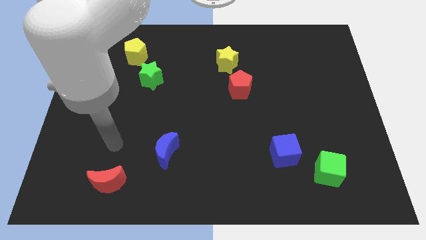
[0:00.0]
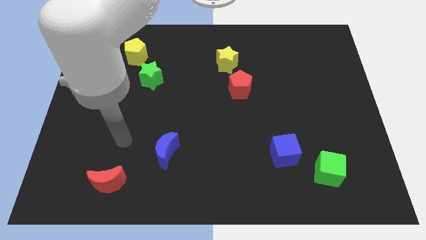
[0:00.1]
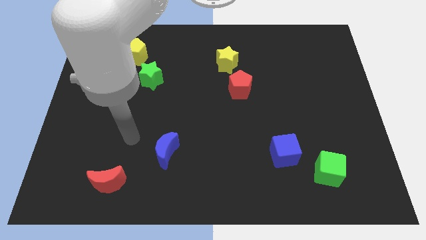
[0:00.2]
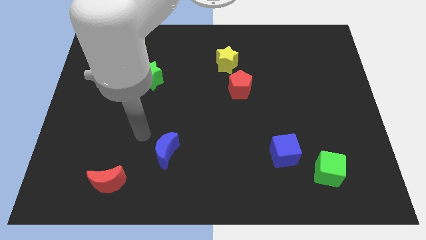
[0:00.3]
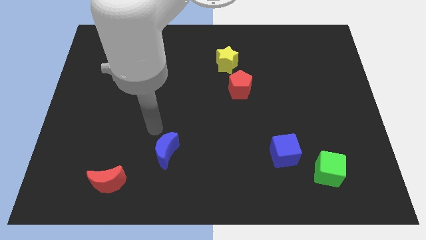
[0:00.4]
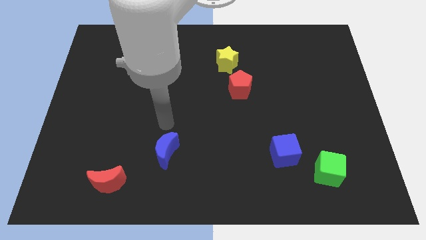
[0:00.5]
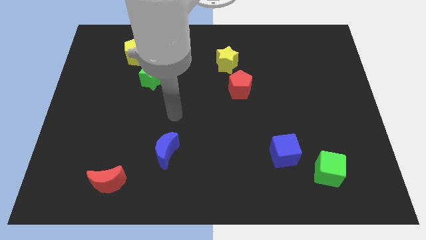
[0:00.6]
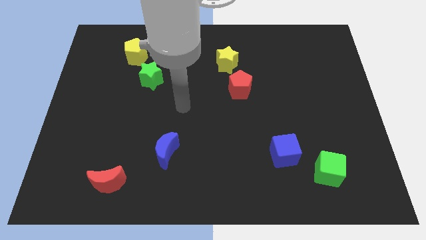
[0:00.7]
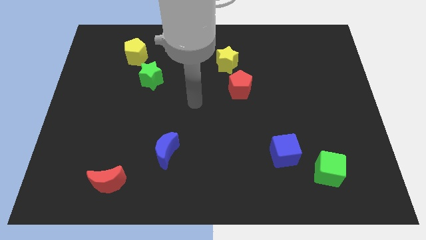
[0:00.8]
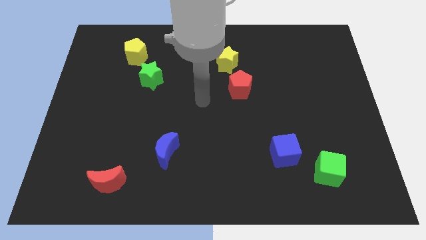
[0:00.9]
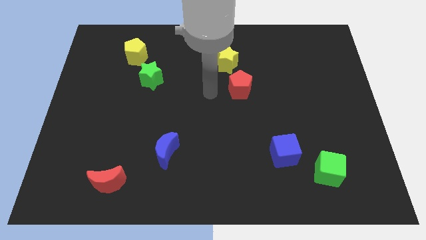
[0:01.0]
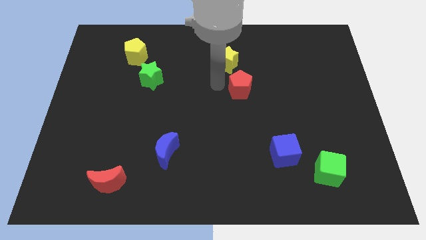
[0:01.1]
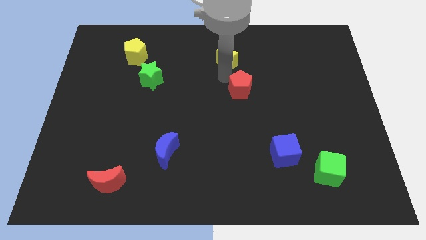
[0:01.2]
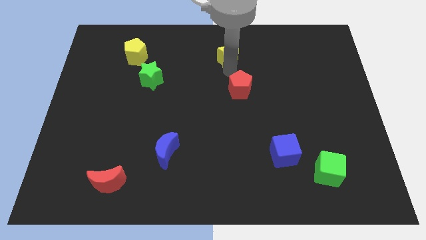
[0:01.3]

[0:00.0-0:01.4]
separate the red pentagon from the yellow star

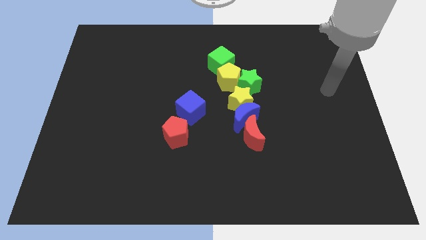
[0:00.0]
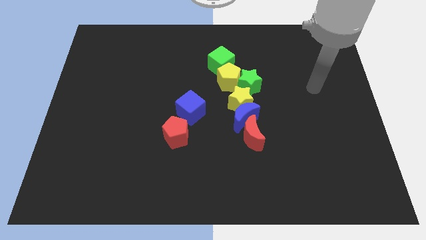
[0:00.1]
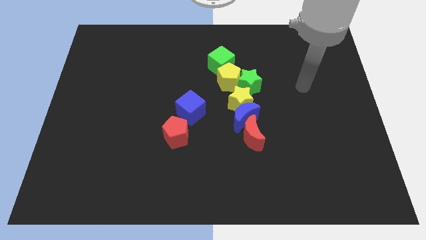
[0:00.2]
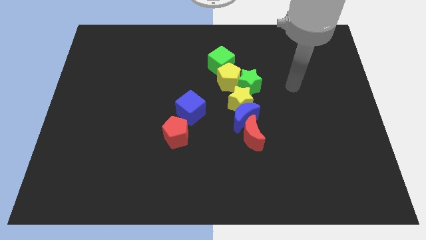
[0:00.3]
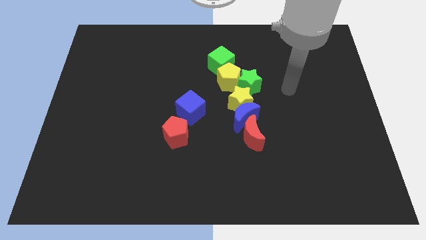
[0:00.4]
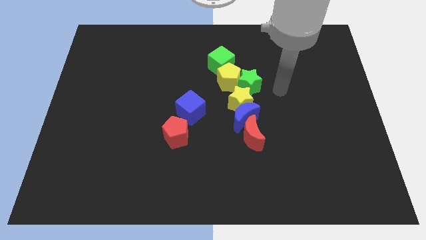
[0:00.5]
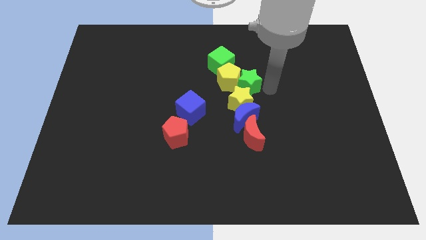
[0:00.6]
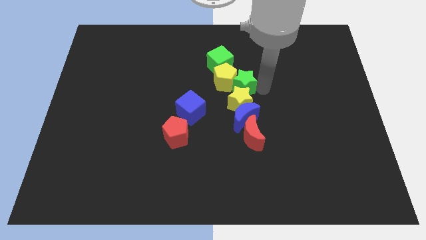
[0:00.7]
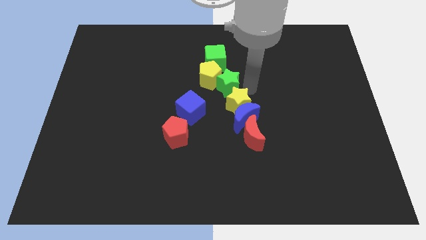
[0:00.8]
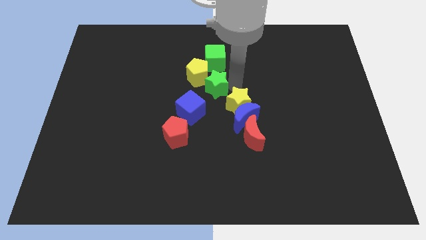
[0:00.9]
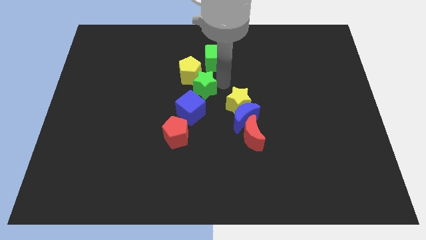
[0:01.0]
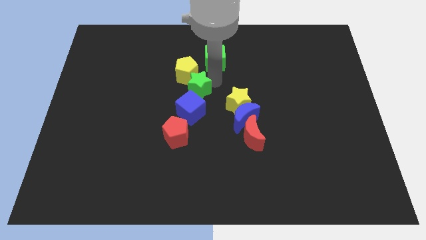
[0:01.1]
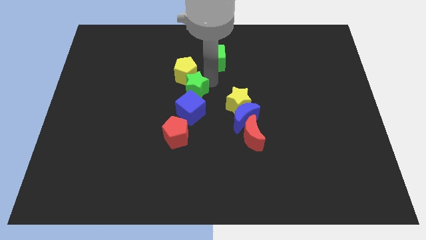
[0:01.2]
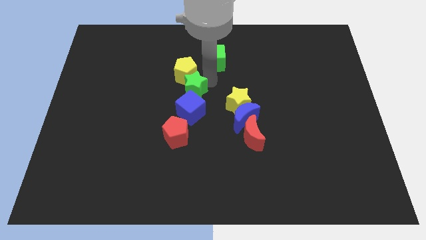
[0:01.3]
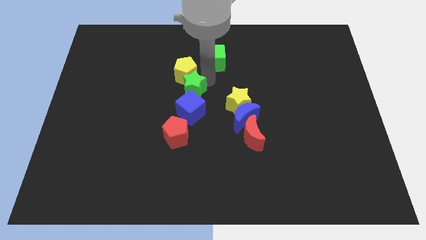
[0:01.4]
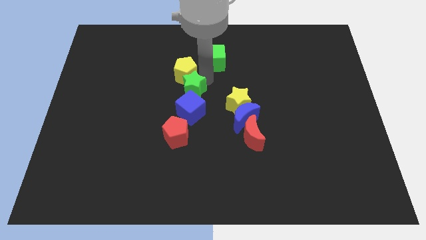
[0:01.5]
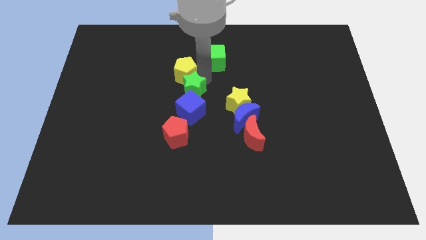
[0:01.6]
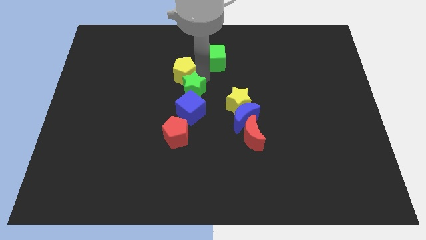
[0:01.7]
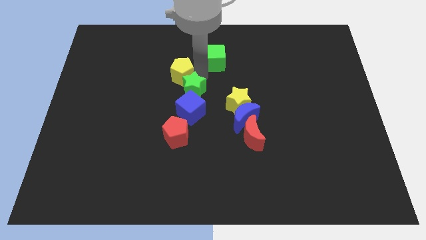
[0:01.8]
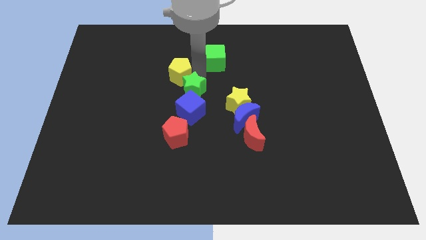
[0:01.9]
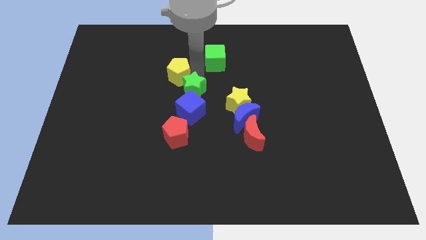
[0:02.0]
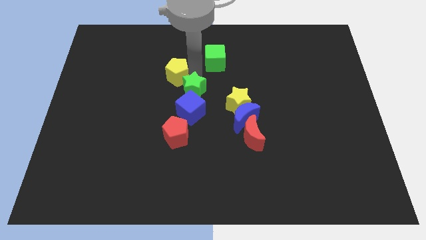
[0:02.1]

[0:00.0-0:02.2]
separate the yellow pentagon from the green star, green cube, and yellow star

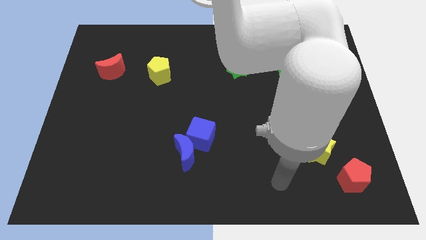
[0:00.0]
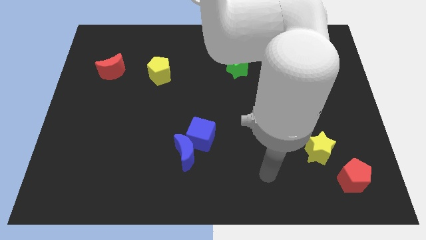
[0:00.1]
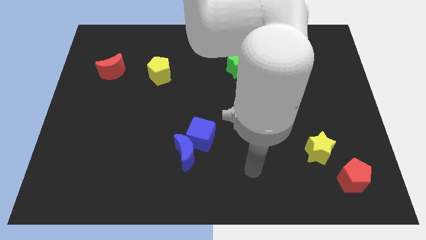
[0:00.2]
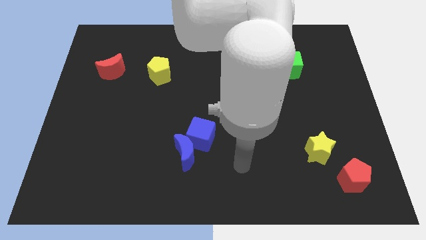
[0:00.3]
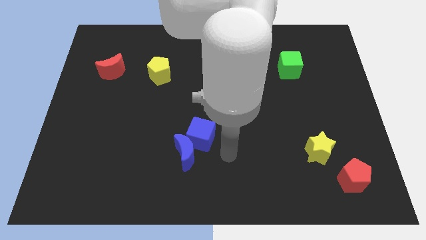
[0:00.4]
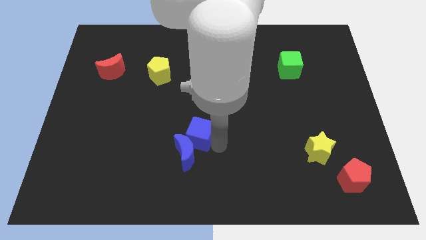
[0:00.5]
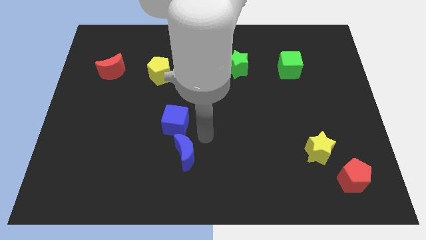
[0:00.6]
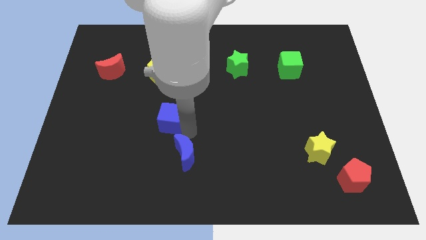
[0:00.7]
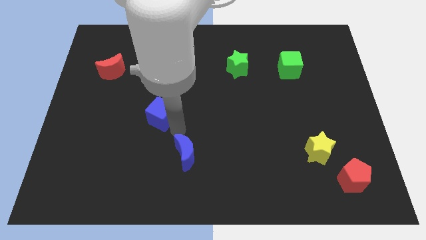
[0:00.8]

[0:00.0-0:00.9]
move the blue moon away from the blue cube

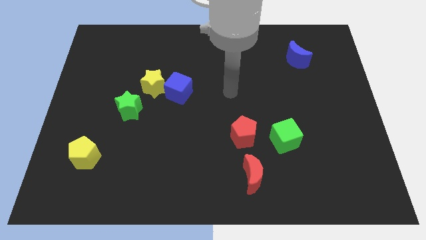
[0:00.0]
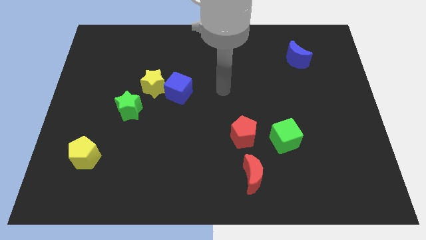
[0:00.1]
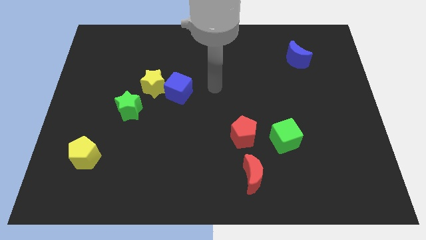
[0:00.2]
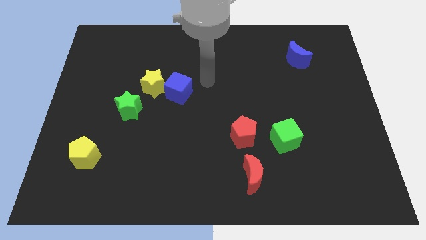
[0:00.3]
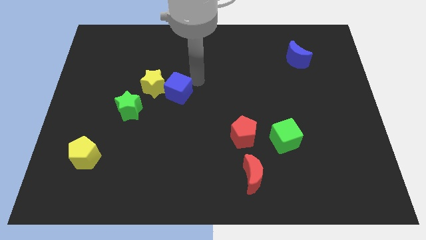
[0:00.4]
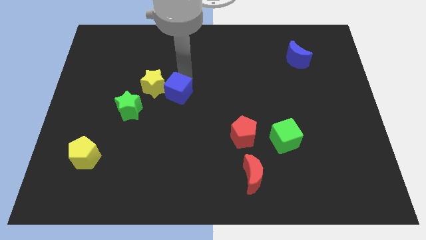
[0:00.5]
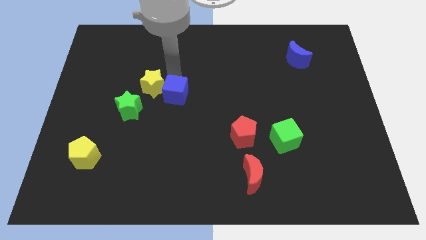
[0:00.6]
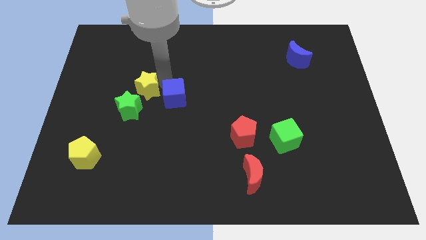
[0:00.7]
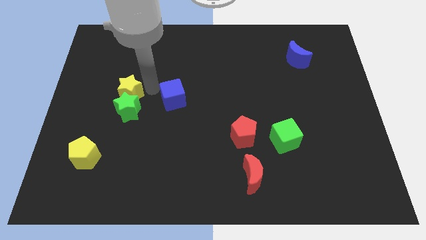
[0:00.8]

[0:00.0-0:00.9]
pull the blue cube apart from the yellow star

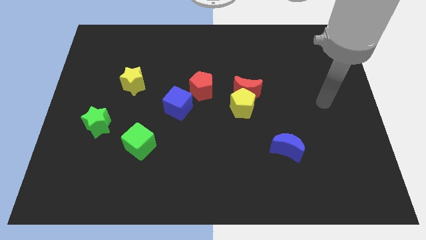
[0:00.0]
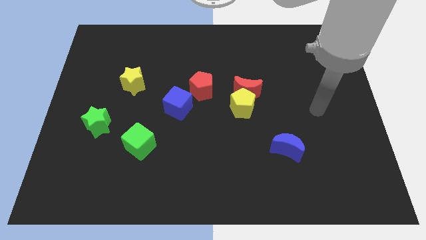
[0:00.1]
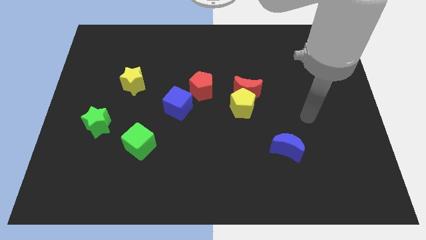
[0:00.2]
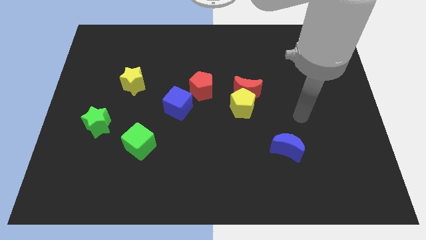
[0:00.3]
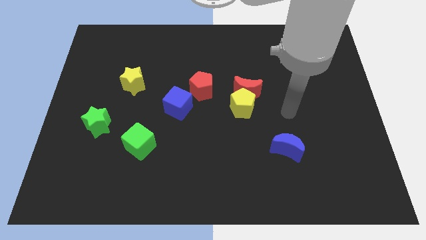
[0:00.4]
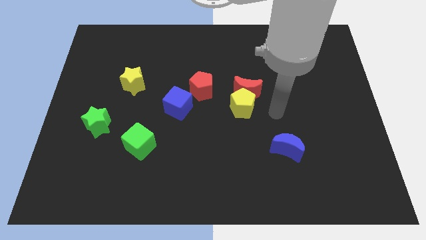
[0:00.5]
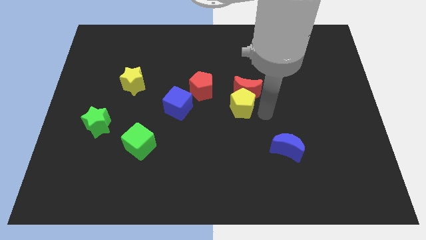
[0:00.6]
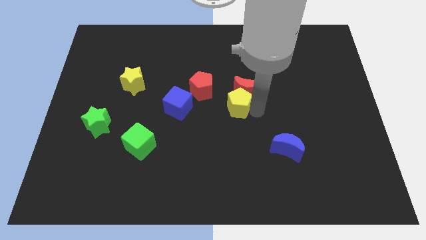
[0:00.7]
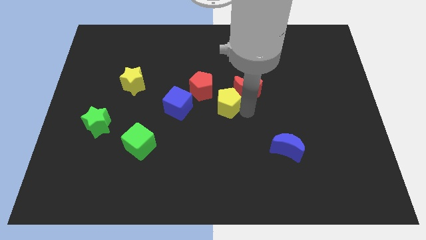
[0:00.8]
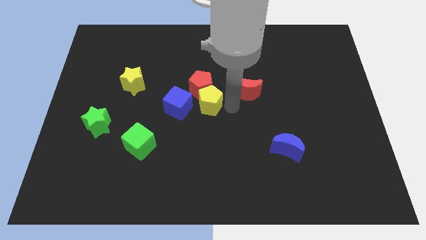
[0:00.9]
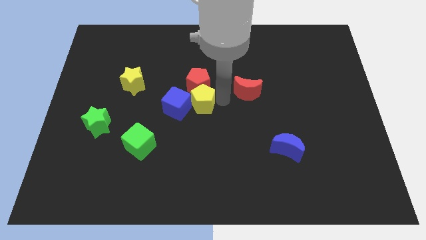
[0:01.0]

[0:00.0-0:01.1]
move the red moon away from the yellow pentagon

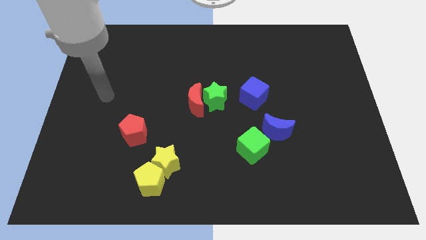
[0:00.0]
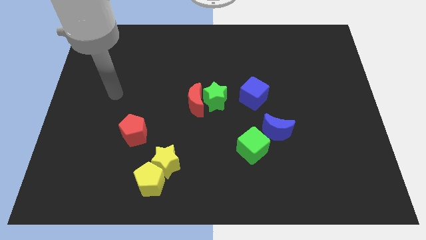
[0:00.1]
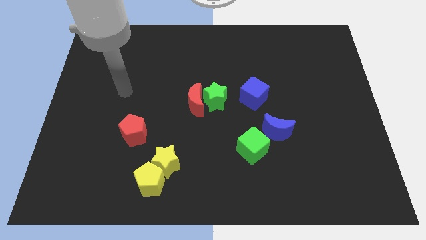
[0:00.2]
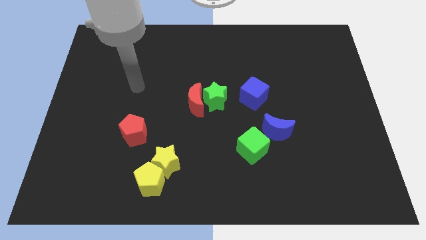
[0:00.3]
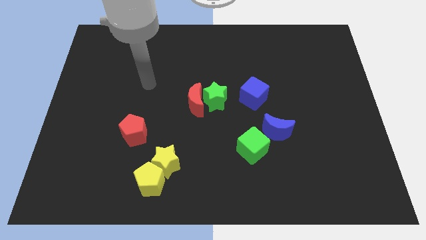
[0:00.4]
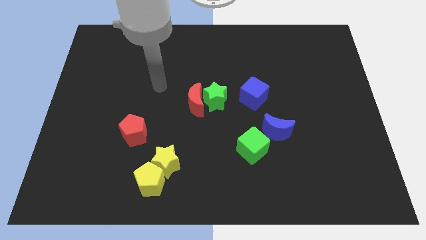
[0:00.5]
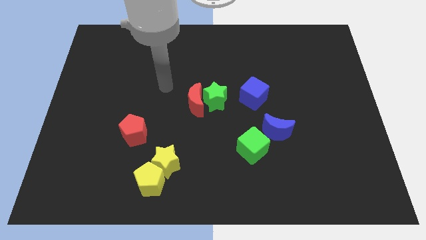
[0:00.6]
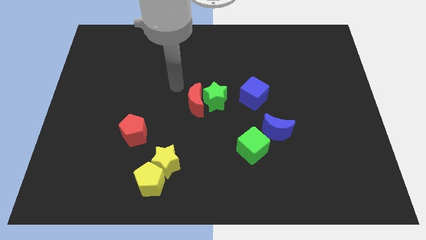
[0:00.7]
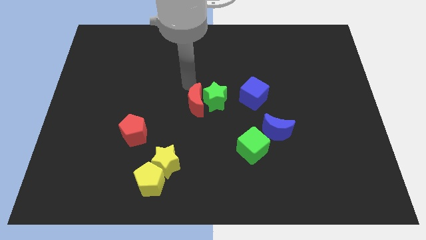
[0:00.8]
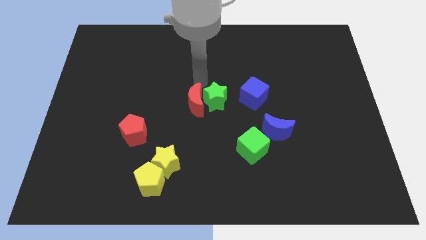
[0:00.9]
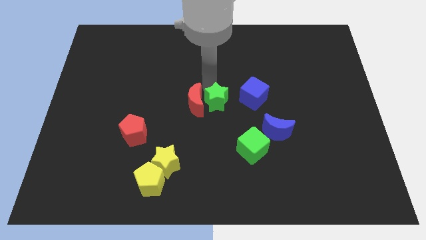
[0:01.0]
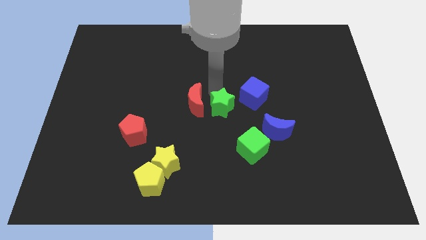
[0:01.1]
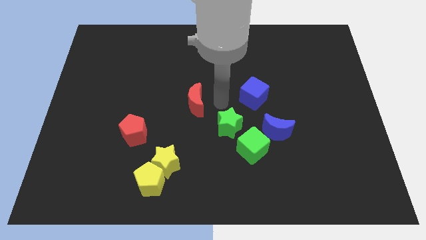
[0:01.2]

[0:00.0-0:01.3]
pull the red moon apart from the green star

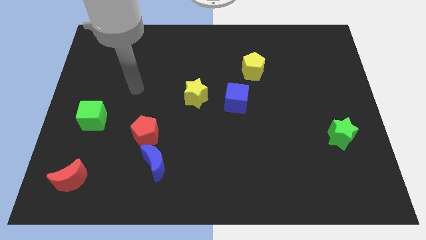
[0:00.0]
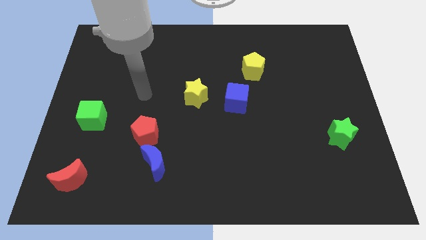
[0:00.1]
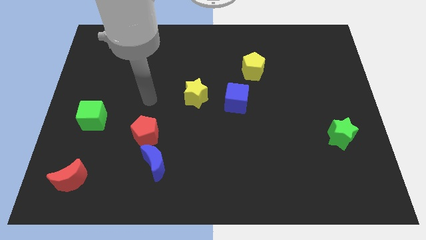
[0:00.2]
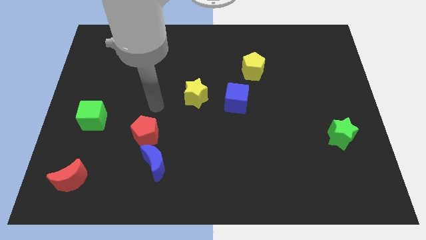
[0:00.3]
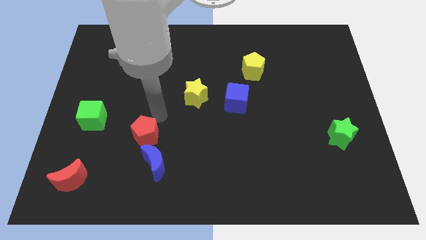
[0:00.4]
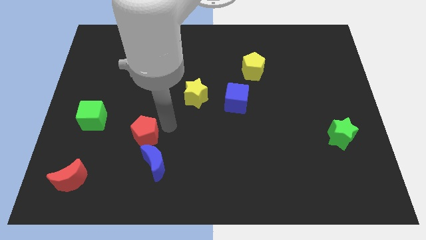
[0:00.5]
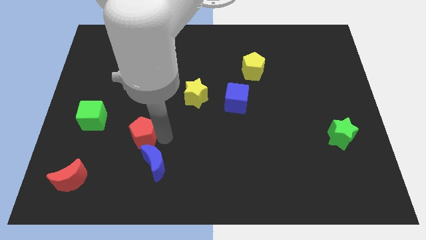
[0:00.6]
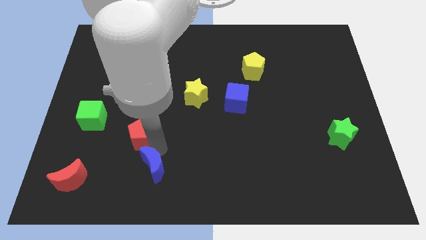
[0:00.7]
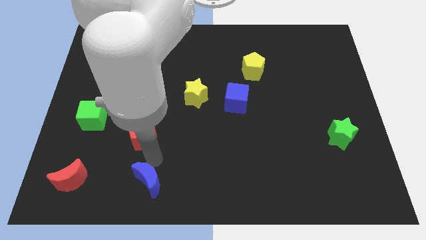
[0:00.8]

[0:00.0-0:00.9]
pull the red pentagon apart from the blue moon

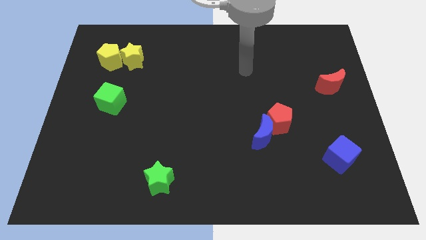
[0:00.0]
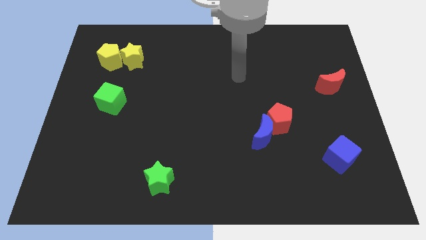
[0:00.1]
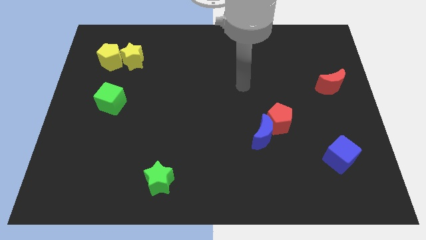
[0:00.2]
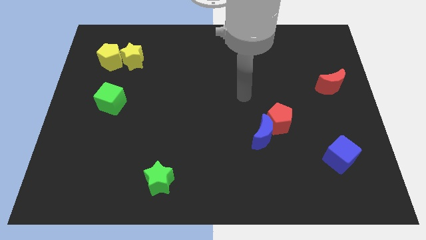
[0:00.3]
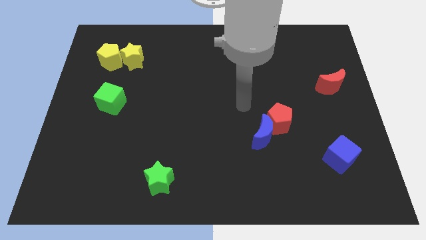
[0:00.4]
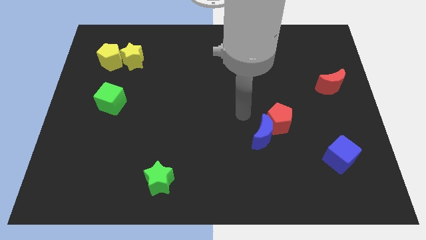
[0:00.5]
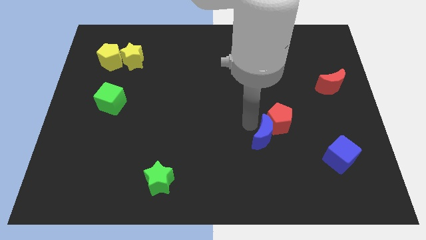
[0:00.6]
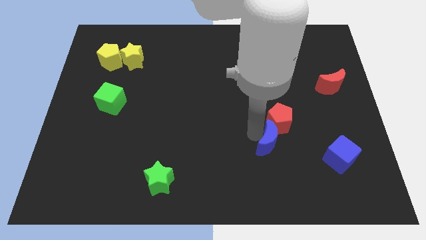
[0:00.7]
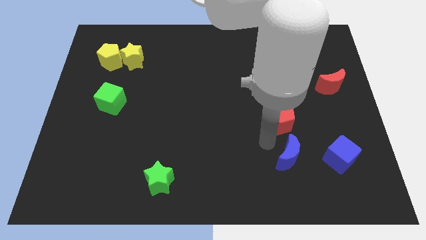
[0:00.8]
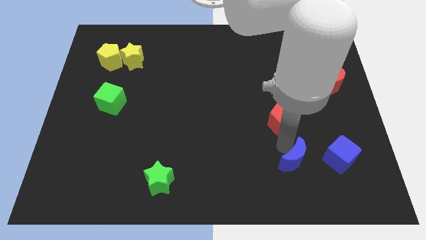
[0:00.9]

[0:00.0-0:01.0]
separate the red pentagon from the blue moon
